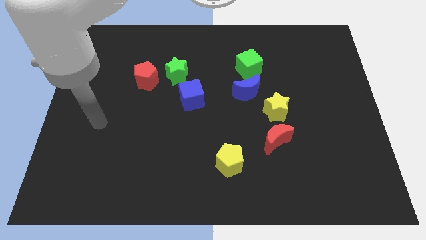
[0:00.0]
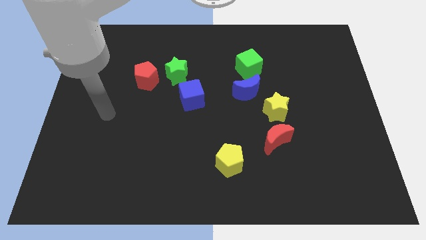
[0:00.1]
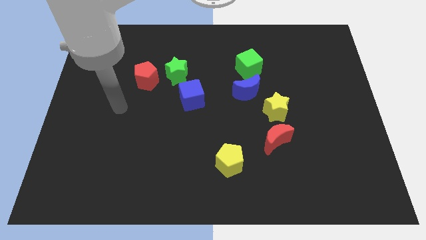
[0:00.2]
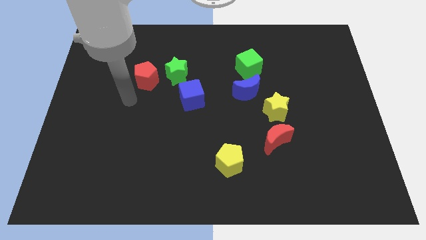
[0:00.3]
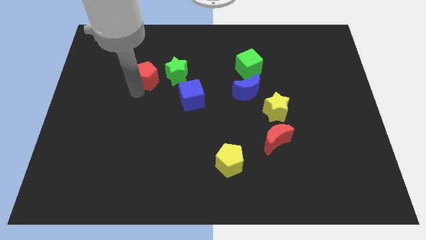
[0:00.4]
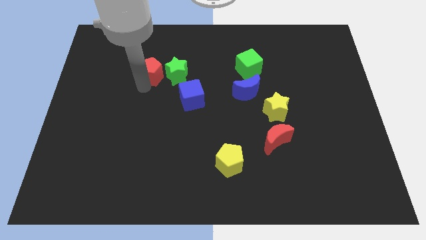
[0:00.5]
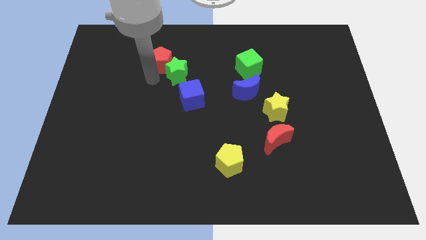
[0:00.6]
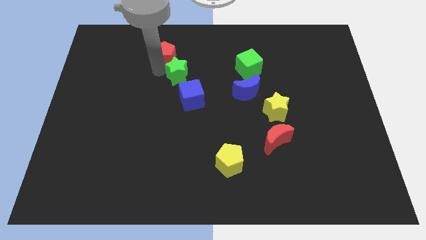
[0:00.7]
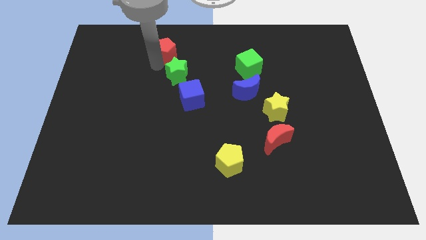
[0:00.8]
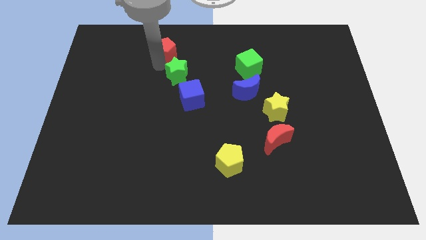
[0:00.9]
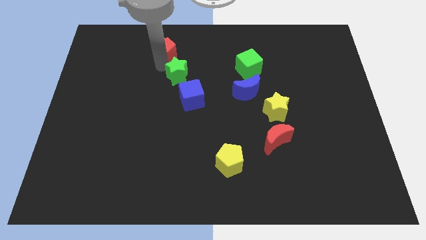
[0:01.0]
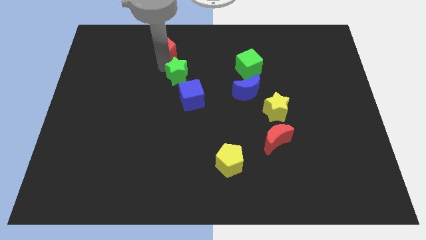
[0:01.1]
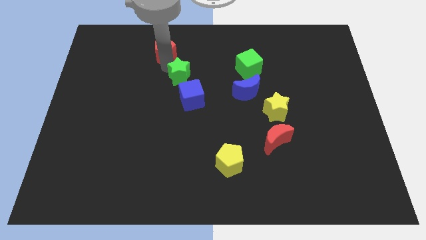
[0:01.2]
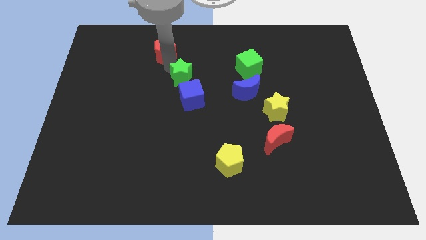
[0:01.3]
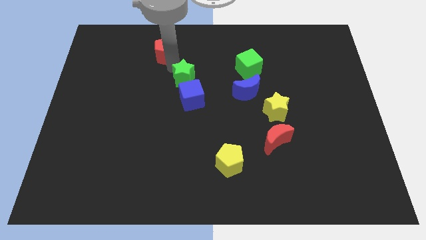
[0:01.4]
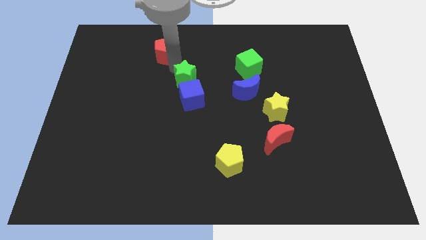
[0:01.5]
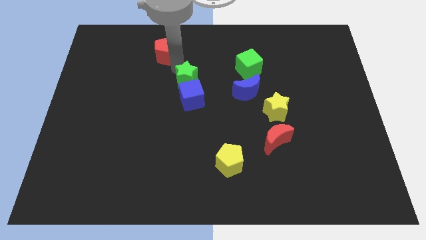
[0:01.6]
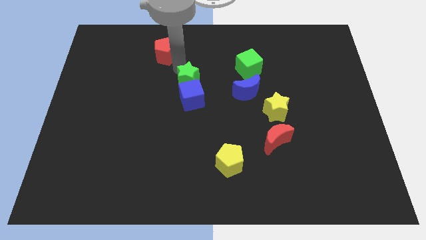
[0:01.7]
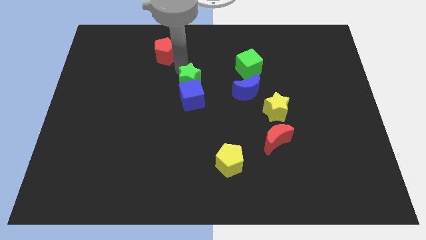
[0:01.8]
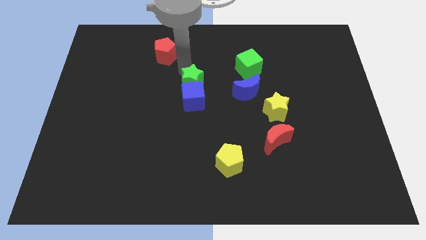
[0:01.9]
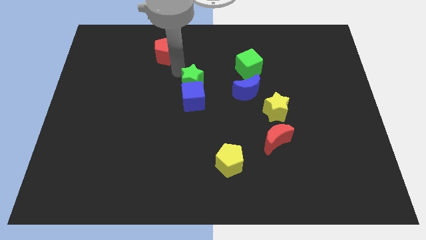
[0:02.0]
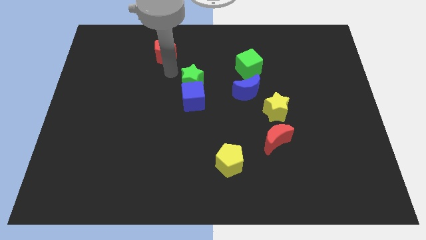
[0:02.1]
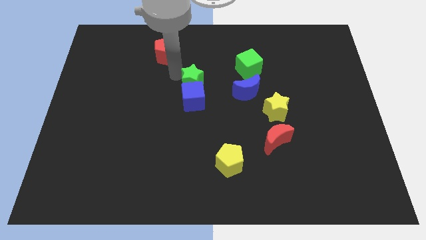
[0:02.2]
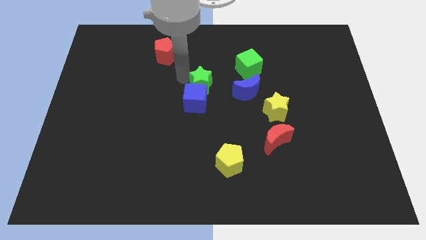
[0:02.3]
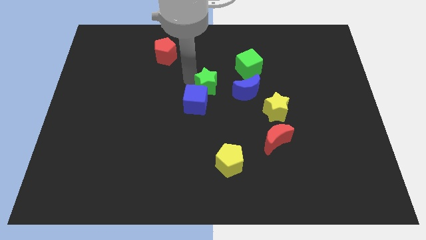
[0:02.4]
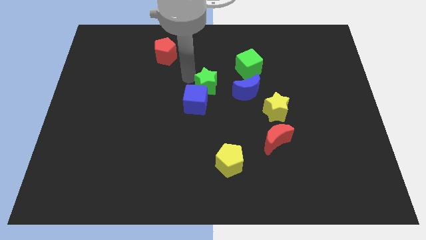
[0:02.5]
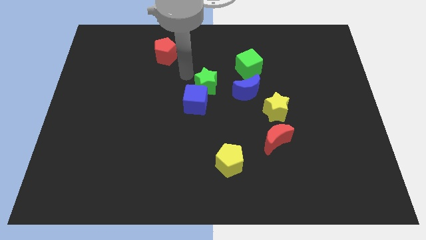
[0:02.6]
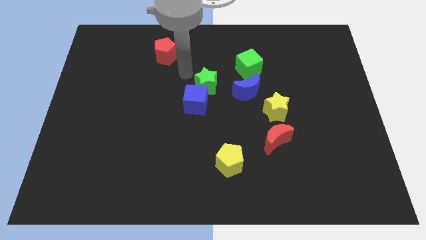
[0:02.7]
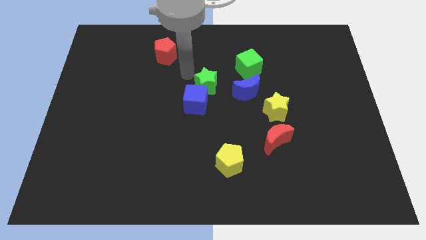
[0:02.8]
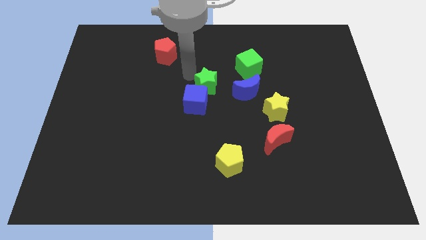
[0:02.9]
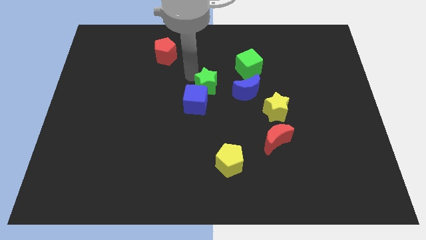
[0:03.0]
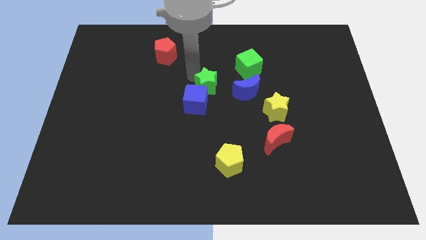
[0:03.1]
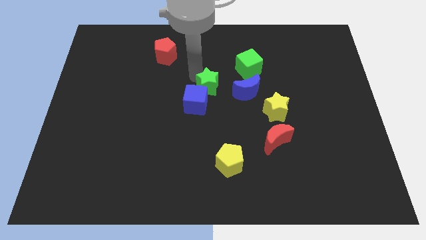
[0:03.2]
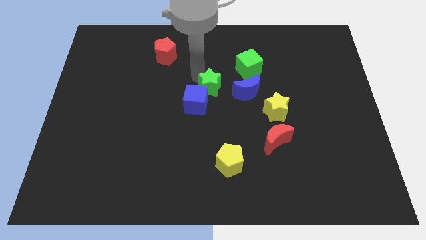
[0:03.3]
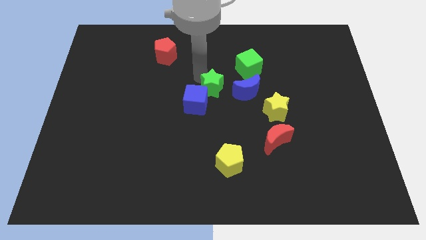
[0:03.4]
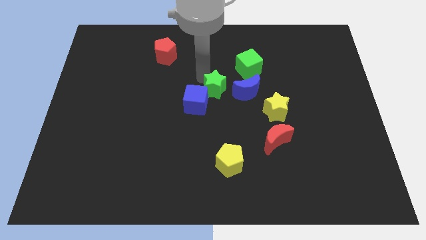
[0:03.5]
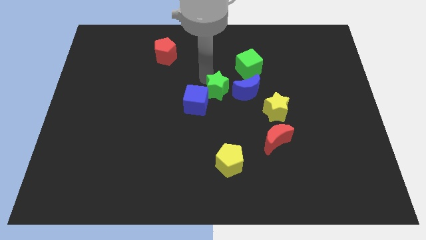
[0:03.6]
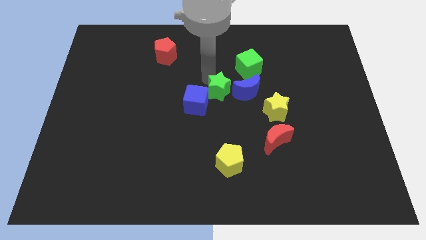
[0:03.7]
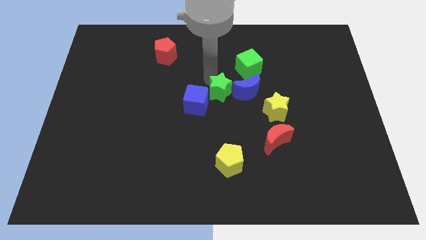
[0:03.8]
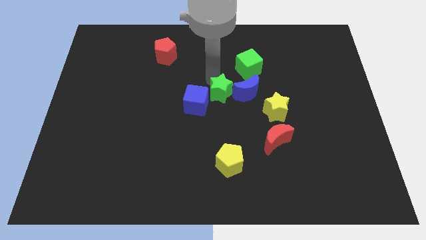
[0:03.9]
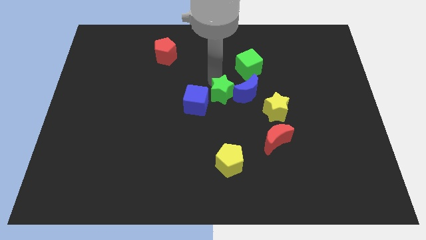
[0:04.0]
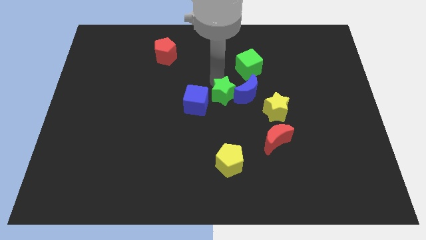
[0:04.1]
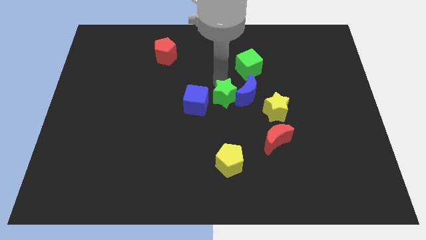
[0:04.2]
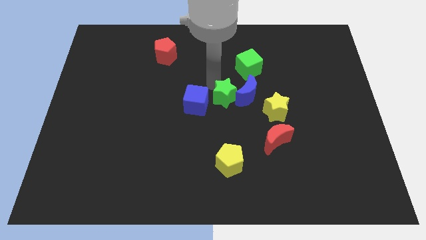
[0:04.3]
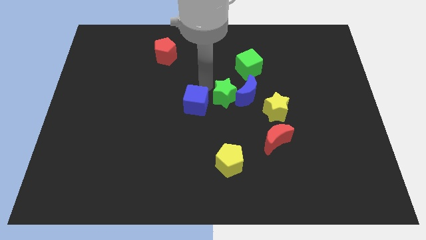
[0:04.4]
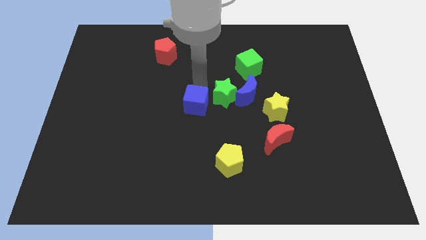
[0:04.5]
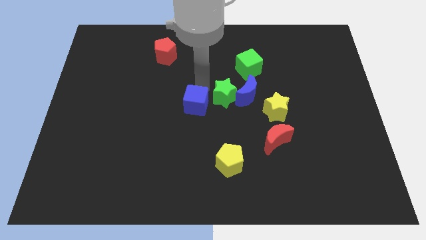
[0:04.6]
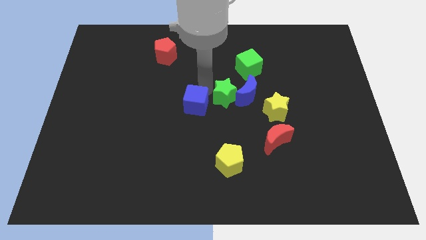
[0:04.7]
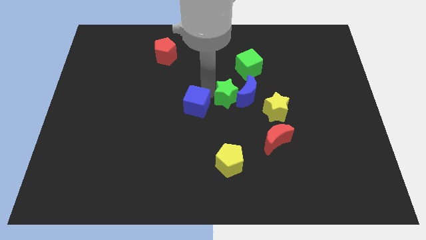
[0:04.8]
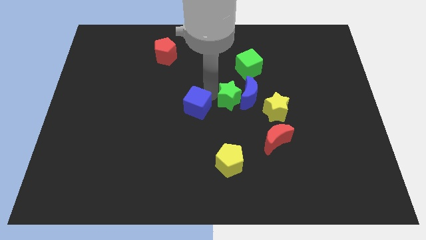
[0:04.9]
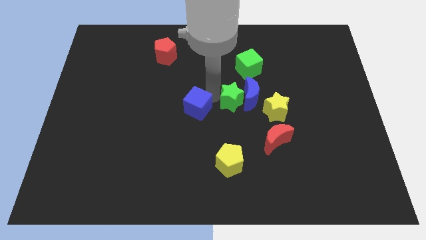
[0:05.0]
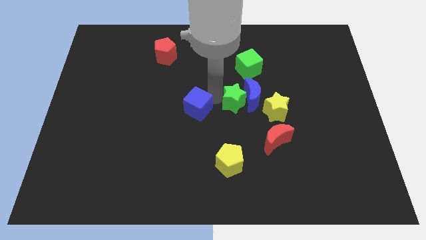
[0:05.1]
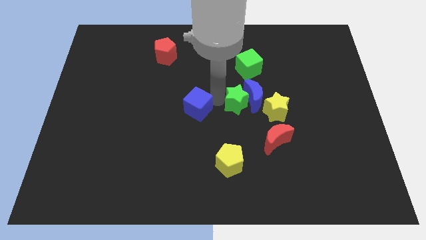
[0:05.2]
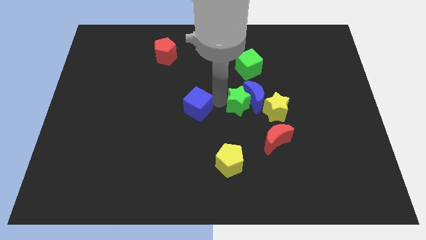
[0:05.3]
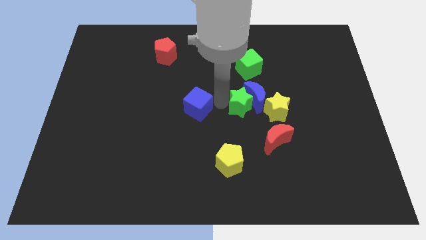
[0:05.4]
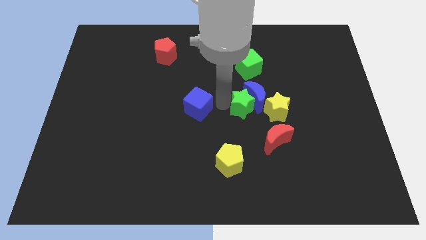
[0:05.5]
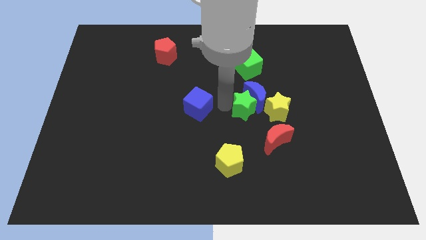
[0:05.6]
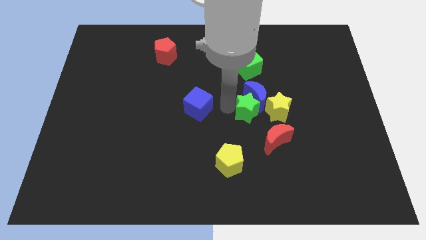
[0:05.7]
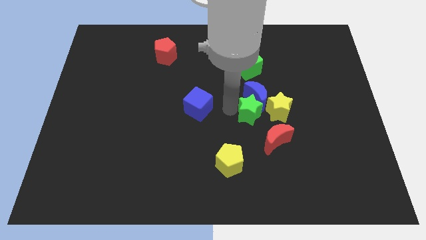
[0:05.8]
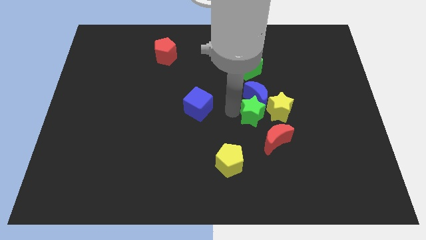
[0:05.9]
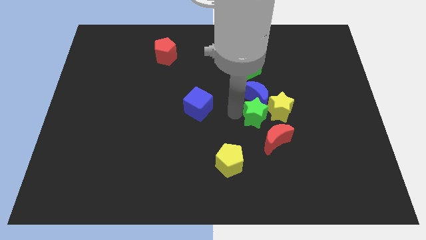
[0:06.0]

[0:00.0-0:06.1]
push the green star to the yellow star

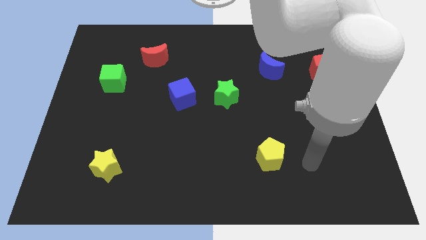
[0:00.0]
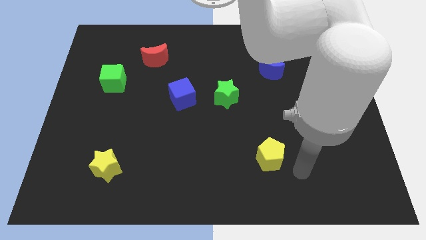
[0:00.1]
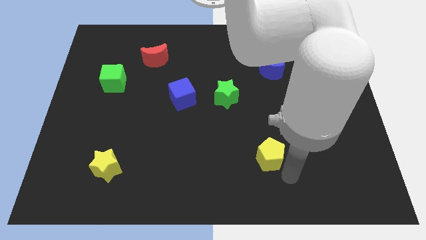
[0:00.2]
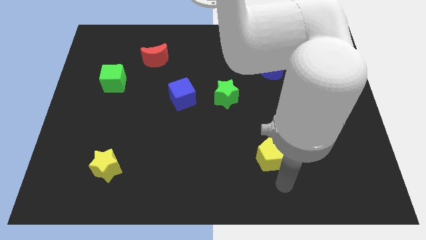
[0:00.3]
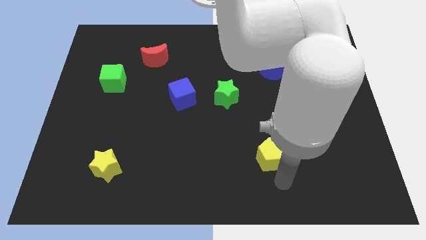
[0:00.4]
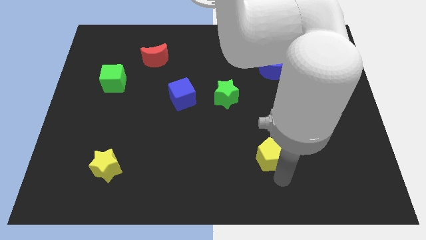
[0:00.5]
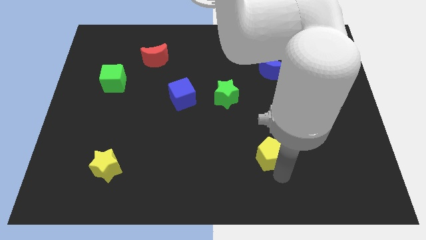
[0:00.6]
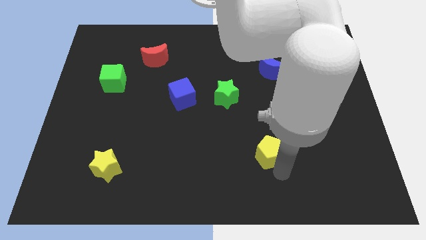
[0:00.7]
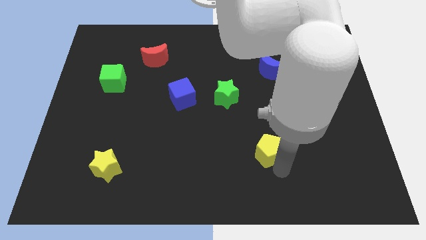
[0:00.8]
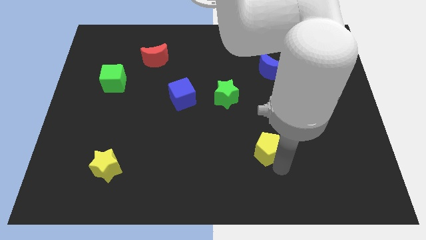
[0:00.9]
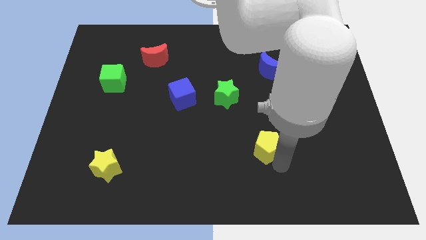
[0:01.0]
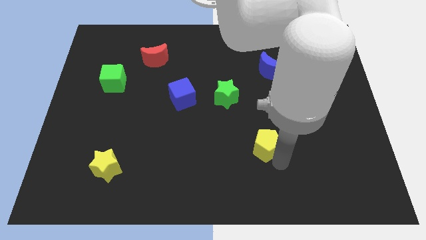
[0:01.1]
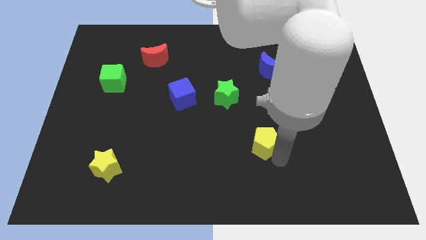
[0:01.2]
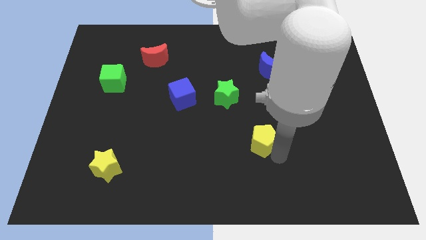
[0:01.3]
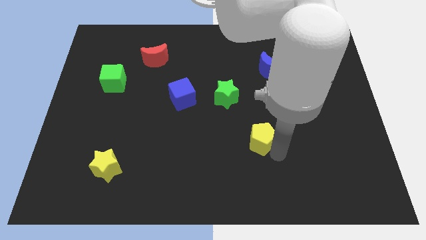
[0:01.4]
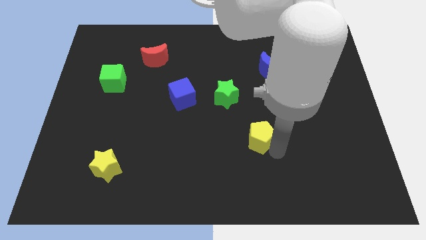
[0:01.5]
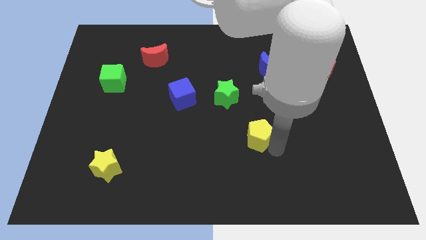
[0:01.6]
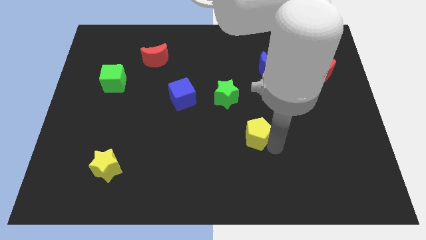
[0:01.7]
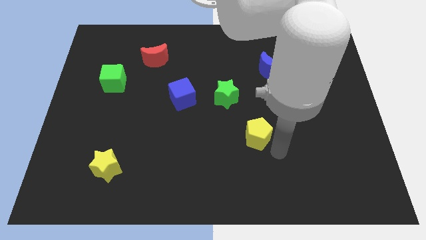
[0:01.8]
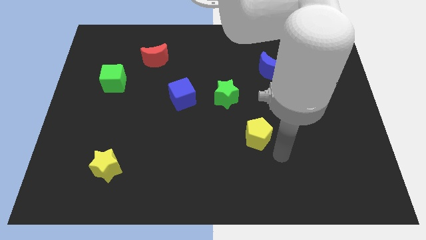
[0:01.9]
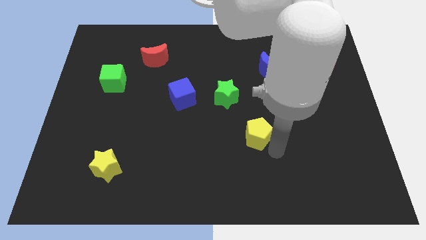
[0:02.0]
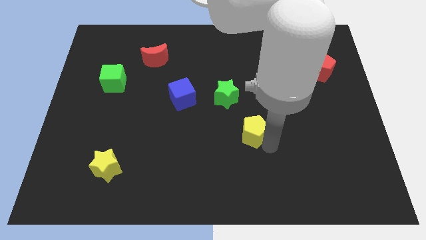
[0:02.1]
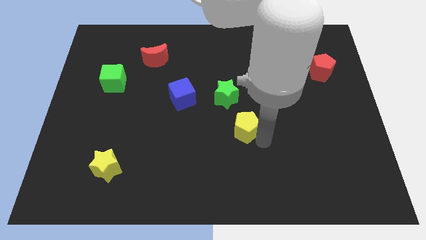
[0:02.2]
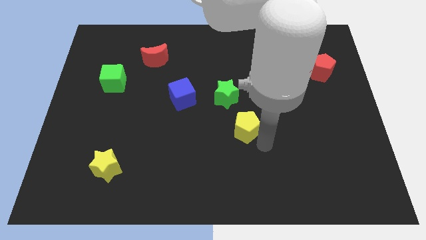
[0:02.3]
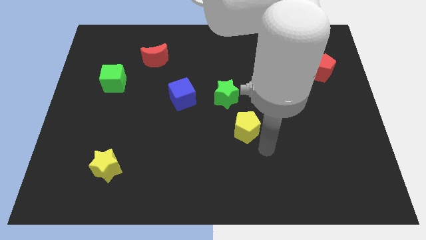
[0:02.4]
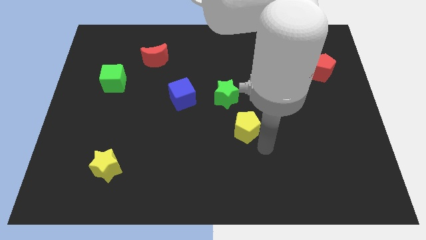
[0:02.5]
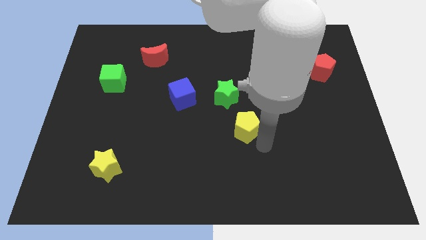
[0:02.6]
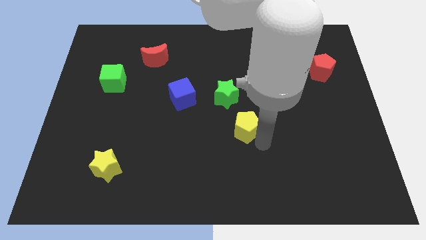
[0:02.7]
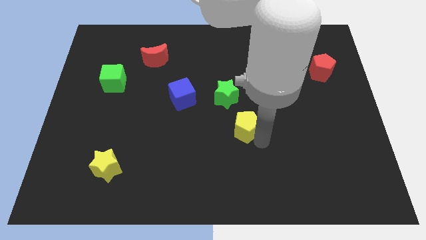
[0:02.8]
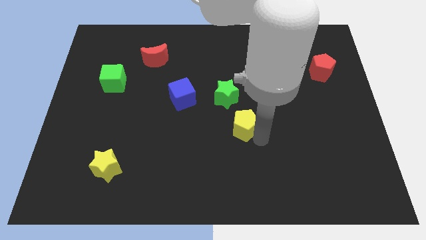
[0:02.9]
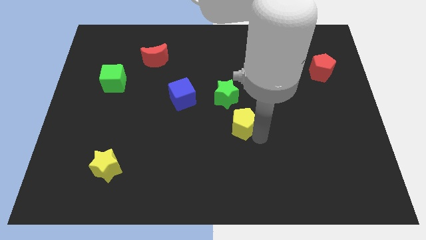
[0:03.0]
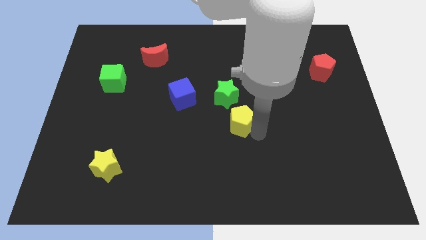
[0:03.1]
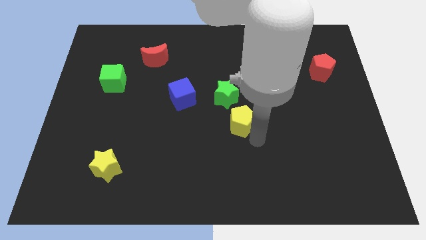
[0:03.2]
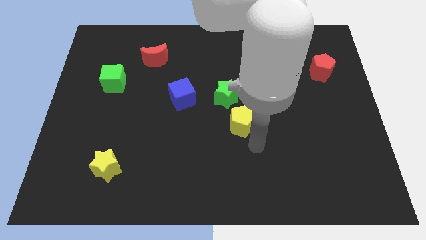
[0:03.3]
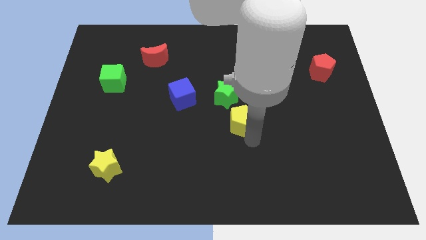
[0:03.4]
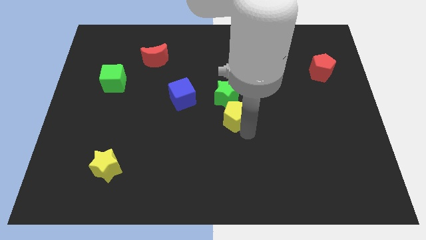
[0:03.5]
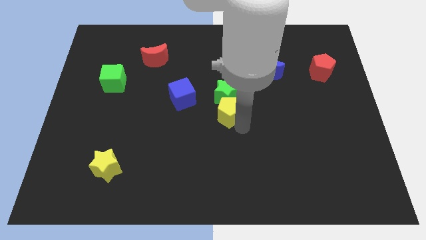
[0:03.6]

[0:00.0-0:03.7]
push the yellow pentagon next to the green star
